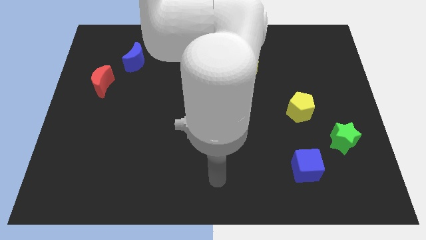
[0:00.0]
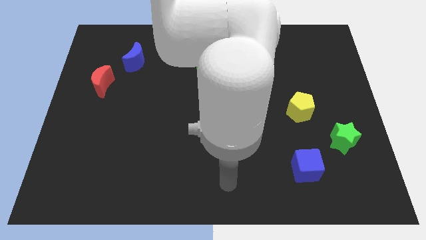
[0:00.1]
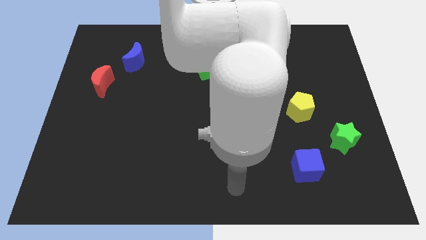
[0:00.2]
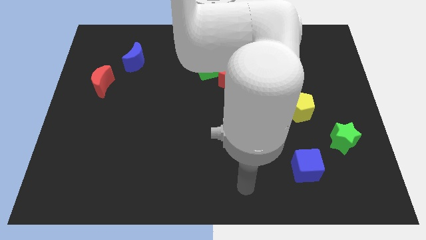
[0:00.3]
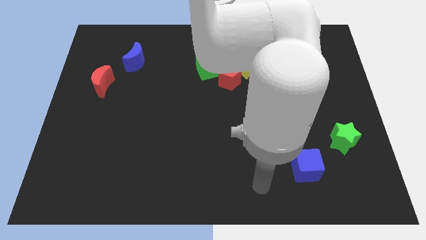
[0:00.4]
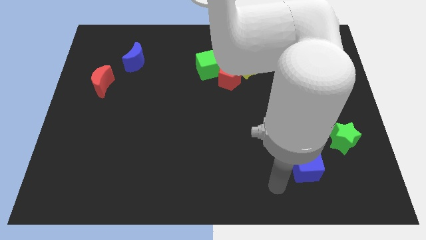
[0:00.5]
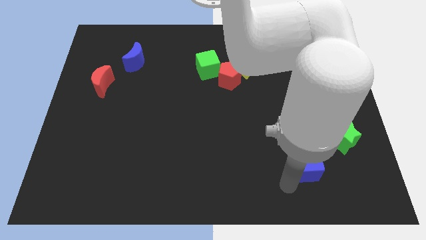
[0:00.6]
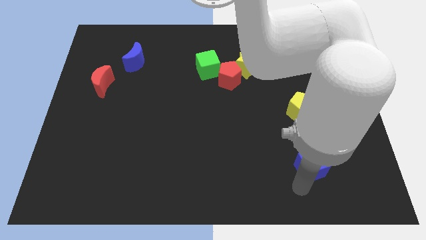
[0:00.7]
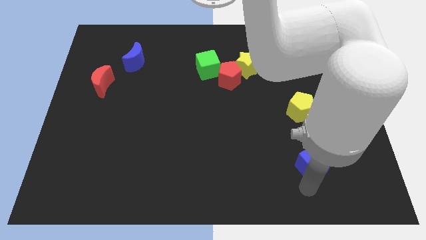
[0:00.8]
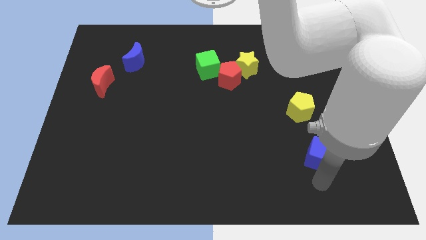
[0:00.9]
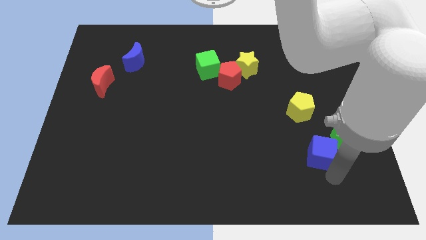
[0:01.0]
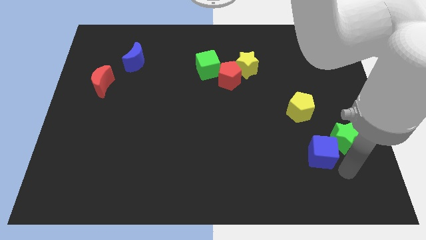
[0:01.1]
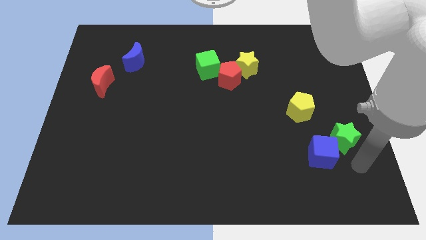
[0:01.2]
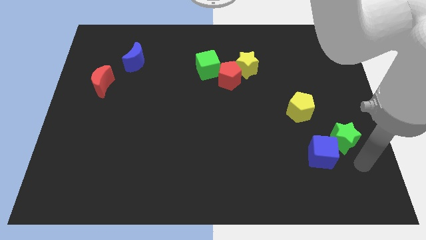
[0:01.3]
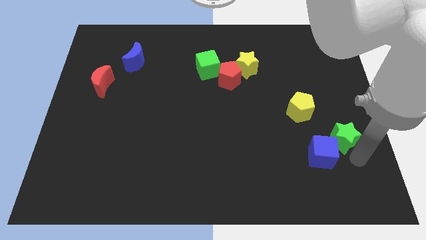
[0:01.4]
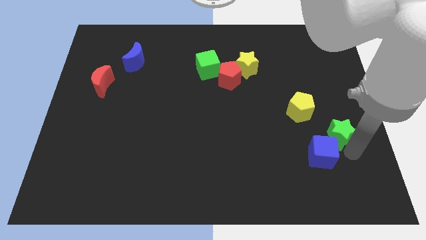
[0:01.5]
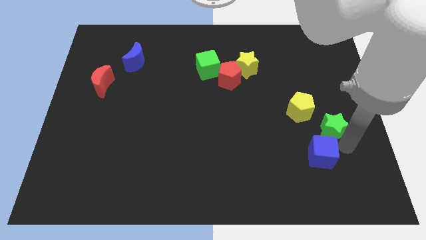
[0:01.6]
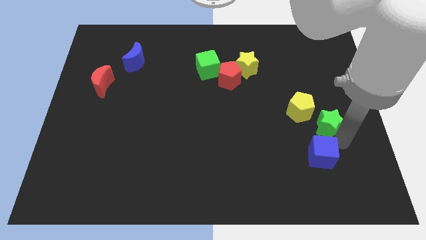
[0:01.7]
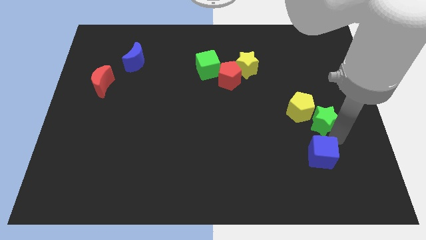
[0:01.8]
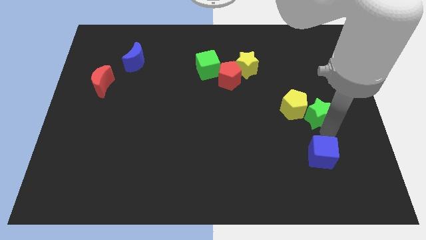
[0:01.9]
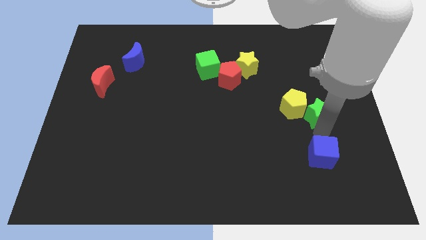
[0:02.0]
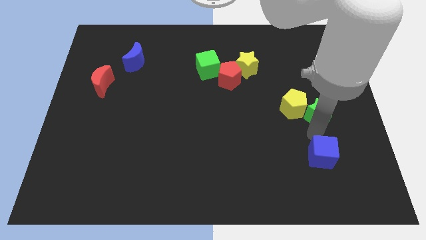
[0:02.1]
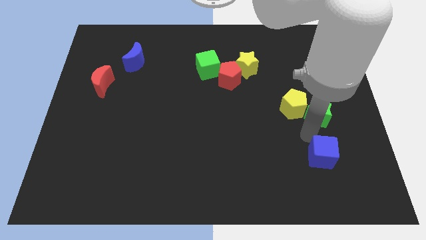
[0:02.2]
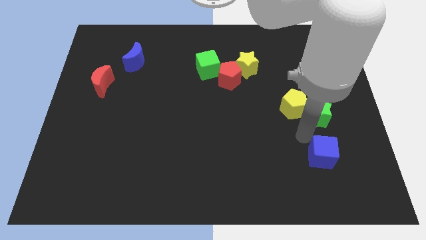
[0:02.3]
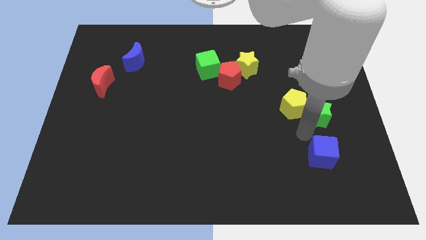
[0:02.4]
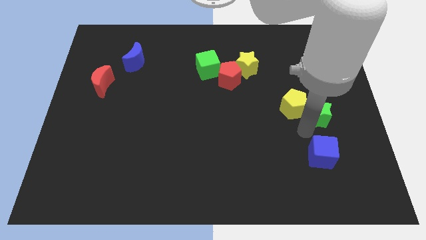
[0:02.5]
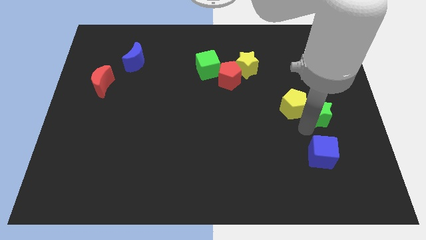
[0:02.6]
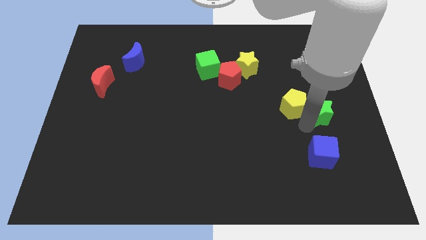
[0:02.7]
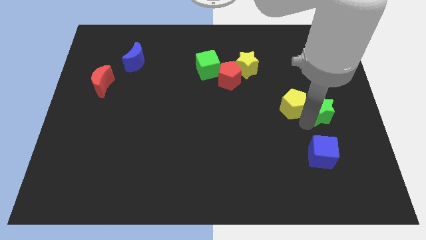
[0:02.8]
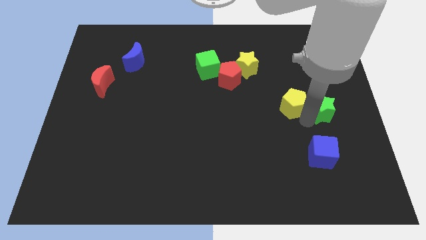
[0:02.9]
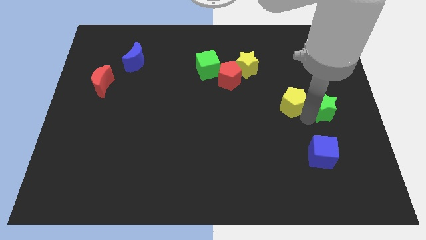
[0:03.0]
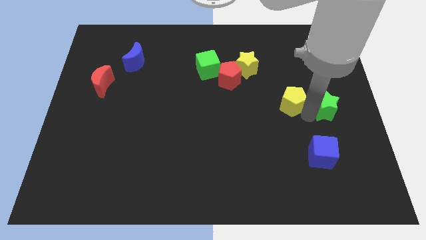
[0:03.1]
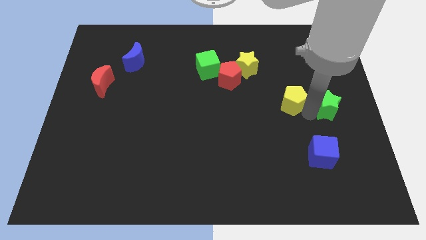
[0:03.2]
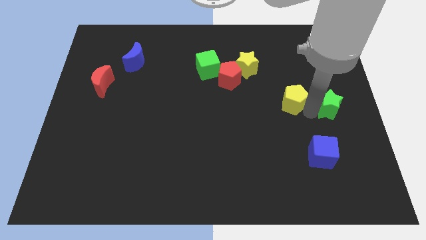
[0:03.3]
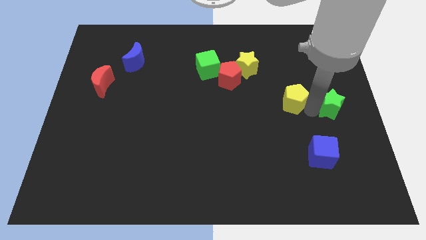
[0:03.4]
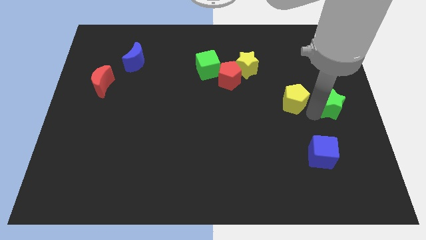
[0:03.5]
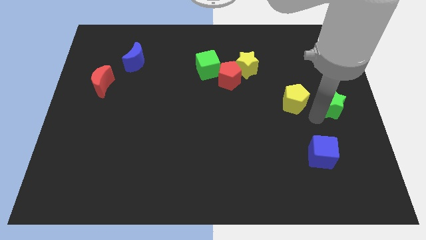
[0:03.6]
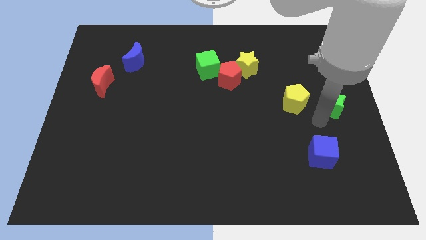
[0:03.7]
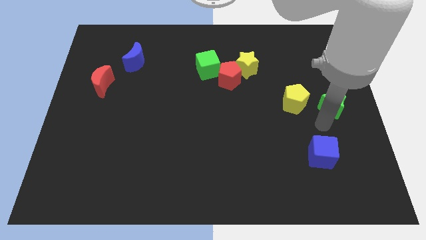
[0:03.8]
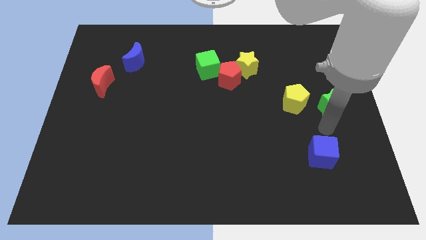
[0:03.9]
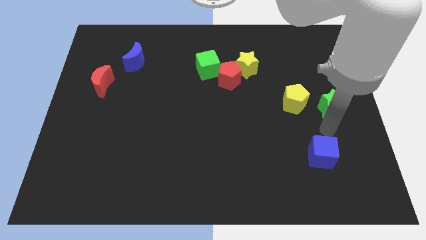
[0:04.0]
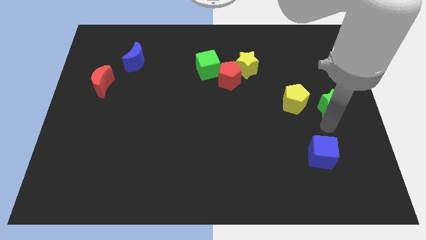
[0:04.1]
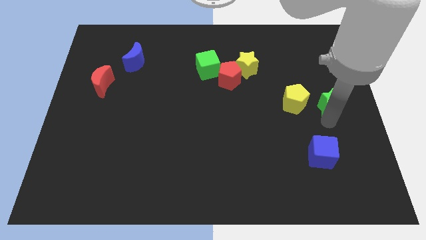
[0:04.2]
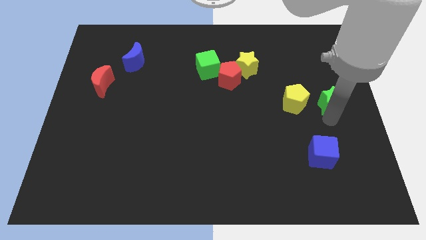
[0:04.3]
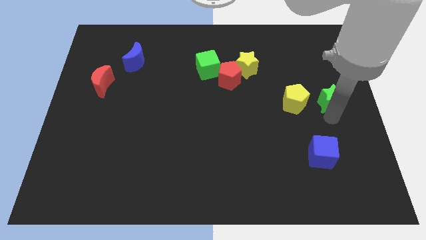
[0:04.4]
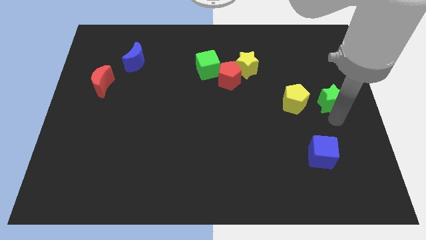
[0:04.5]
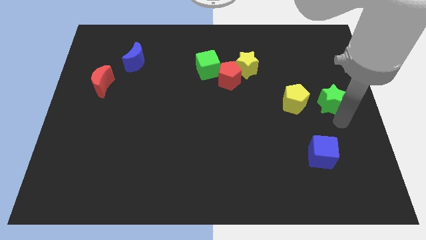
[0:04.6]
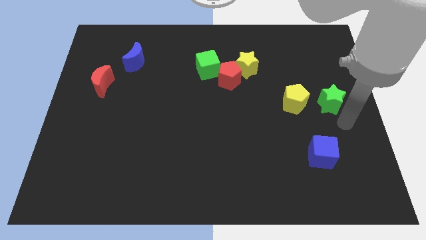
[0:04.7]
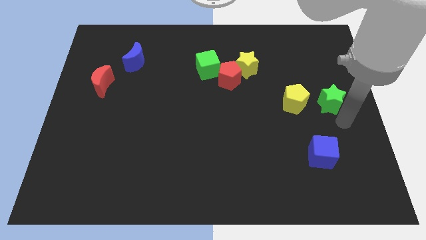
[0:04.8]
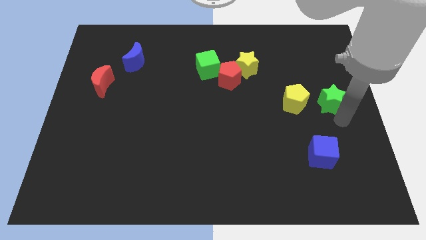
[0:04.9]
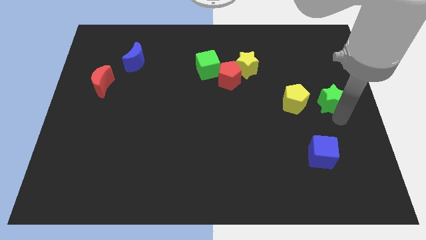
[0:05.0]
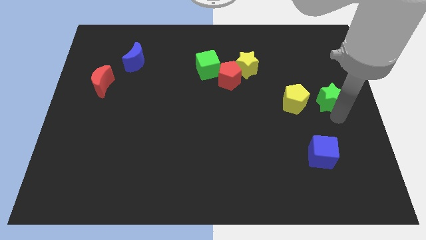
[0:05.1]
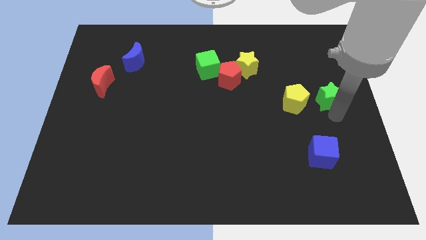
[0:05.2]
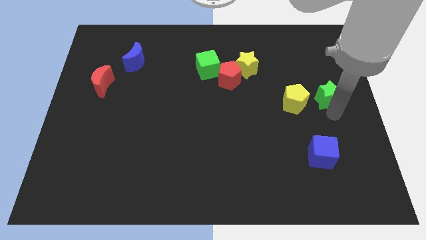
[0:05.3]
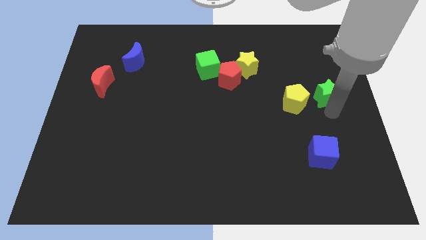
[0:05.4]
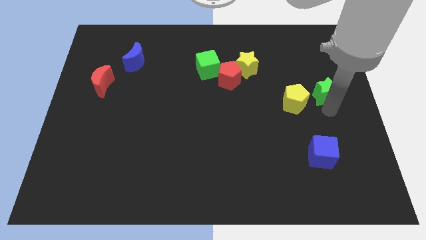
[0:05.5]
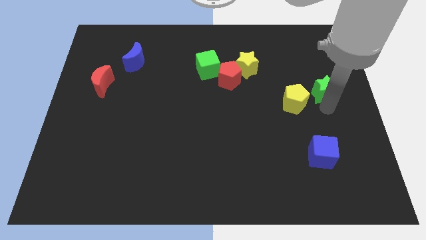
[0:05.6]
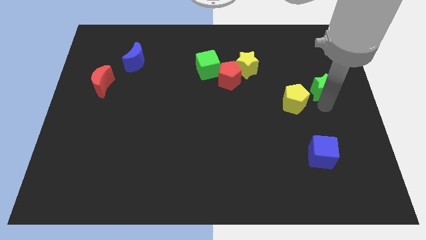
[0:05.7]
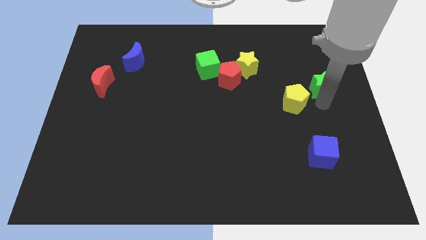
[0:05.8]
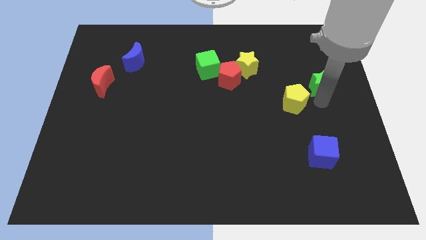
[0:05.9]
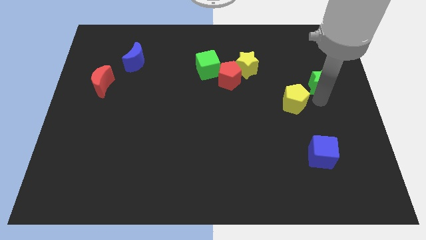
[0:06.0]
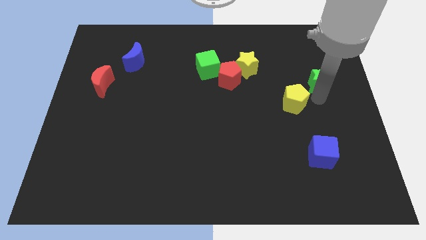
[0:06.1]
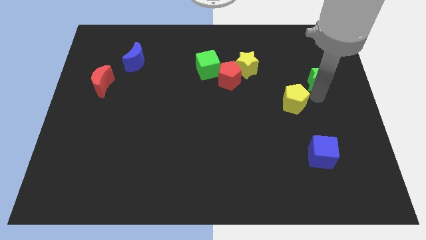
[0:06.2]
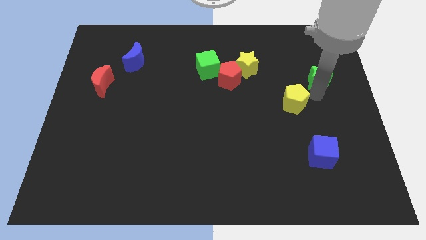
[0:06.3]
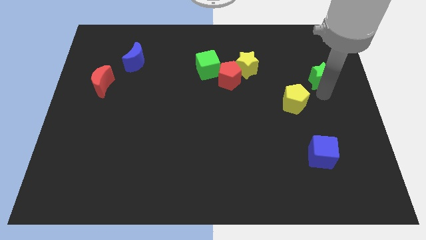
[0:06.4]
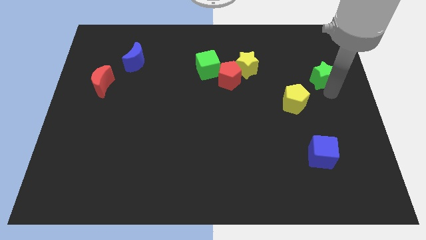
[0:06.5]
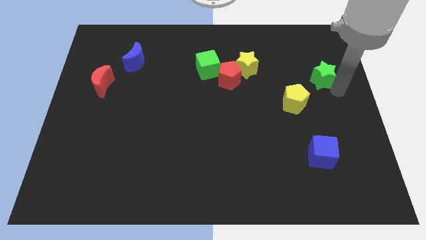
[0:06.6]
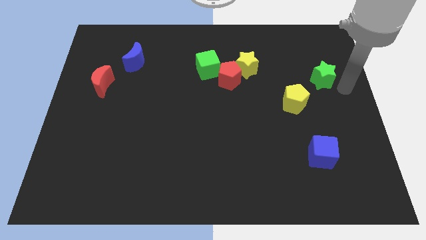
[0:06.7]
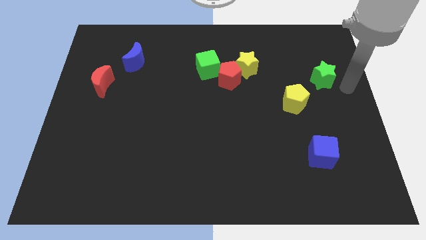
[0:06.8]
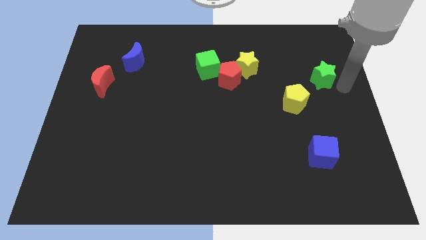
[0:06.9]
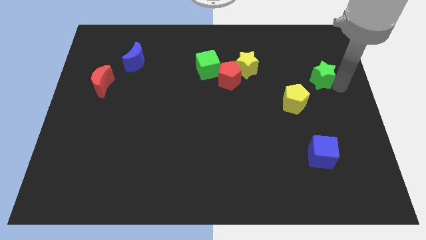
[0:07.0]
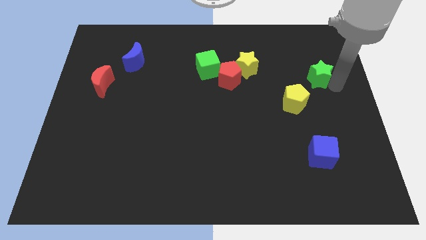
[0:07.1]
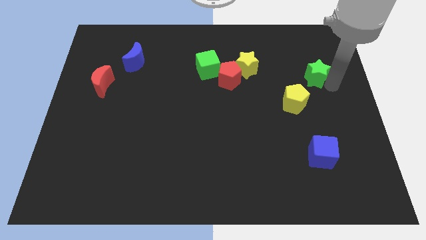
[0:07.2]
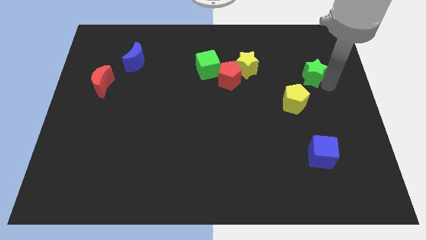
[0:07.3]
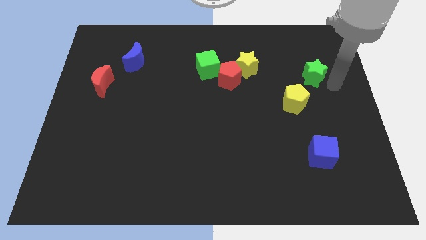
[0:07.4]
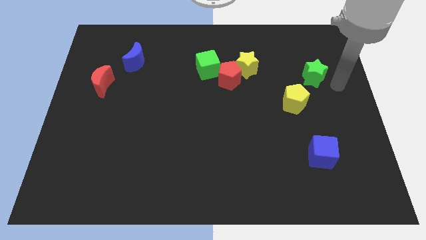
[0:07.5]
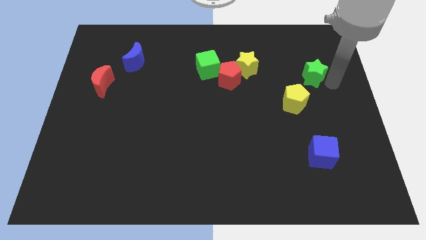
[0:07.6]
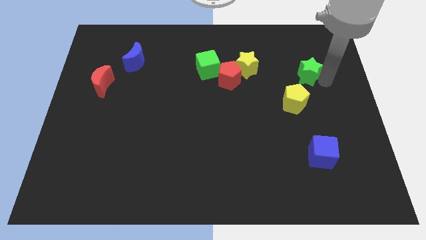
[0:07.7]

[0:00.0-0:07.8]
slide the green star just right of the yellow star
